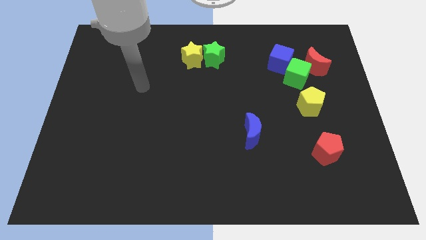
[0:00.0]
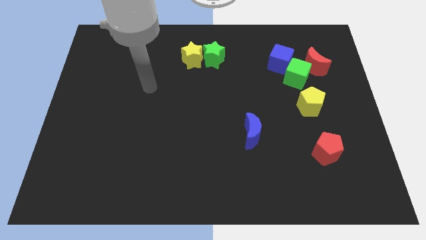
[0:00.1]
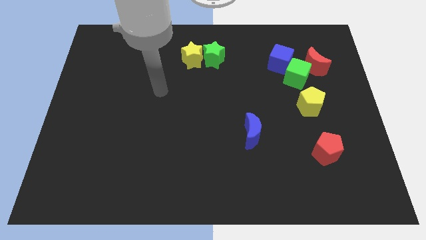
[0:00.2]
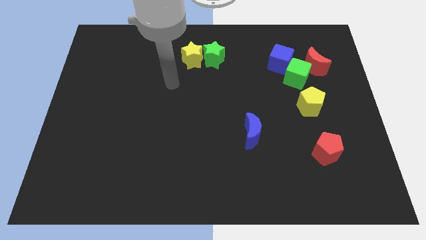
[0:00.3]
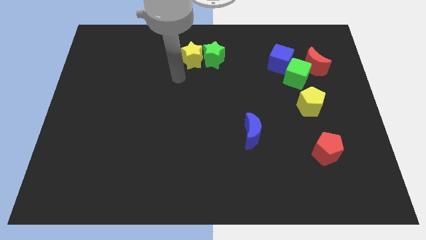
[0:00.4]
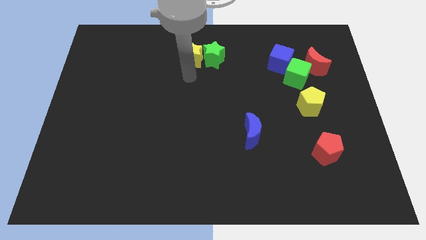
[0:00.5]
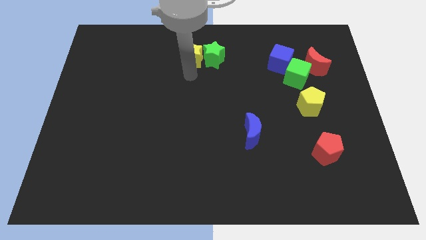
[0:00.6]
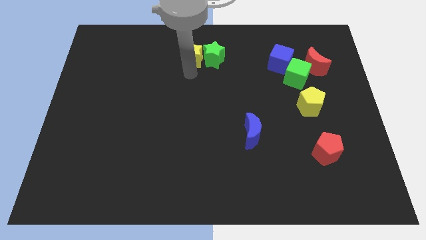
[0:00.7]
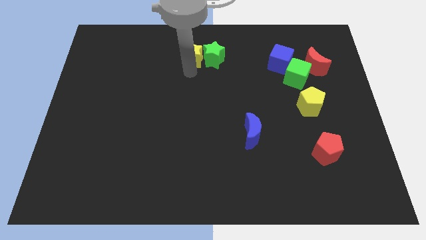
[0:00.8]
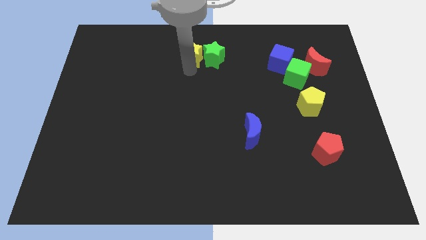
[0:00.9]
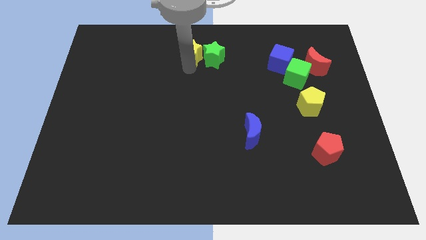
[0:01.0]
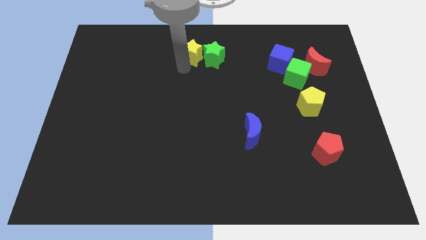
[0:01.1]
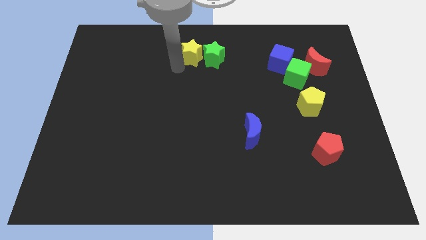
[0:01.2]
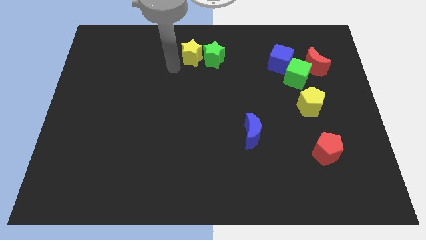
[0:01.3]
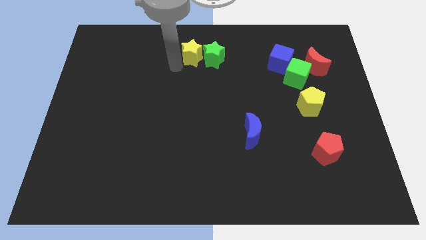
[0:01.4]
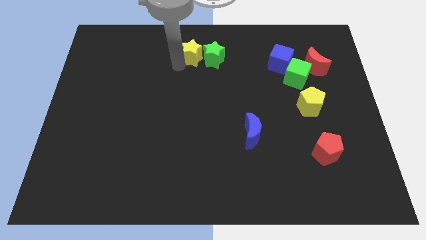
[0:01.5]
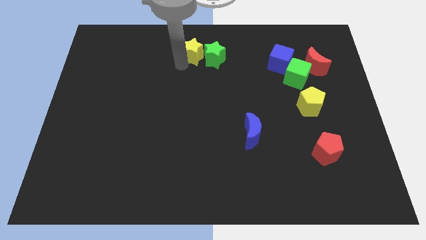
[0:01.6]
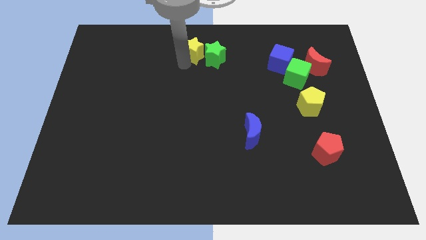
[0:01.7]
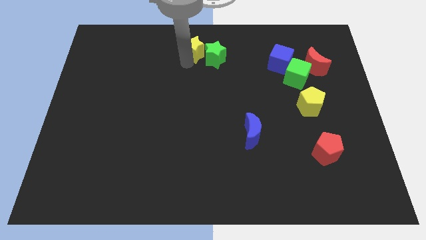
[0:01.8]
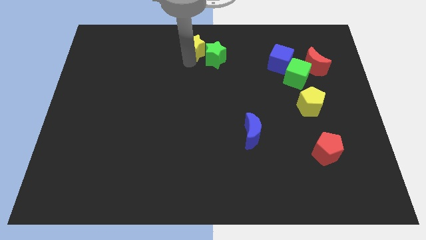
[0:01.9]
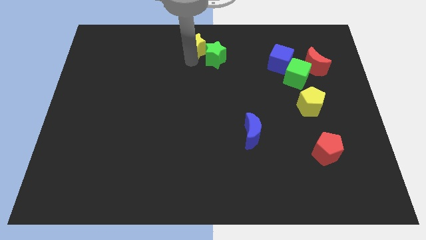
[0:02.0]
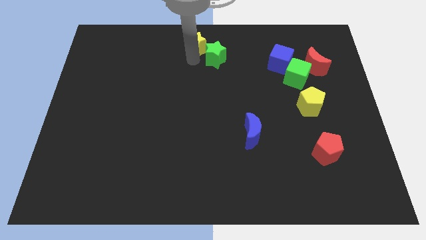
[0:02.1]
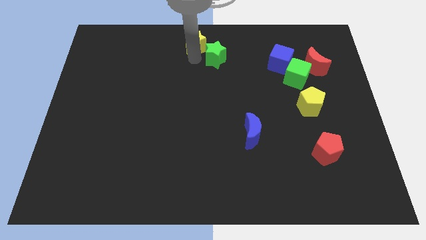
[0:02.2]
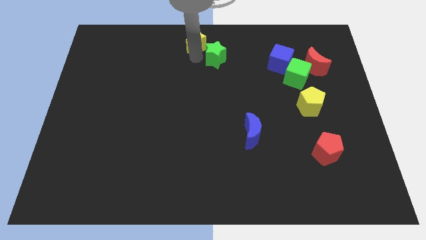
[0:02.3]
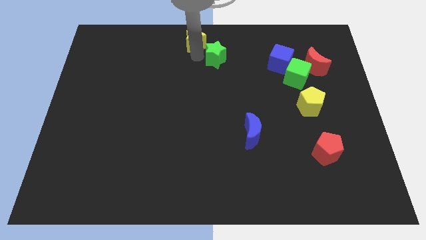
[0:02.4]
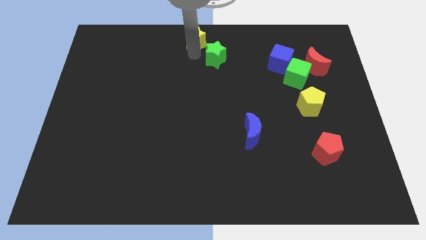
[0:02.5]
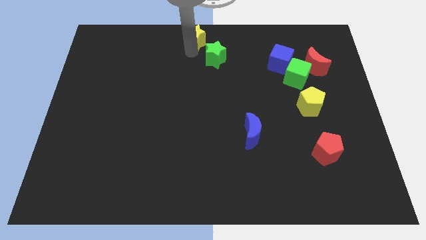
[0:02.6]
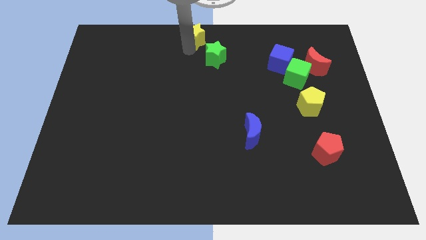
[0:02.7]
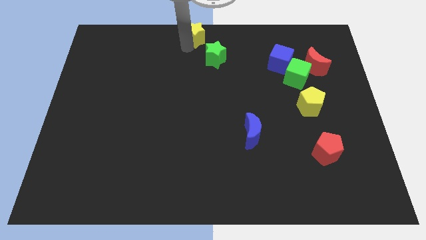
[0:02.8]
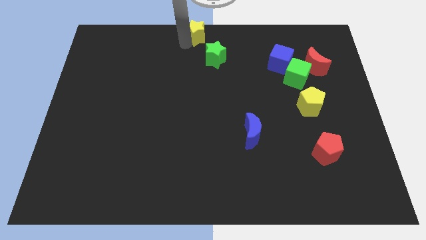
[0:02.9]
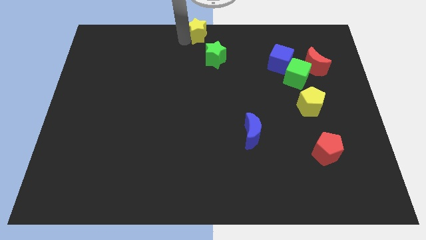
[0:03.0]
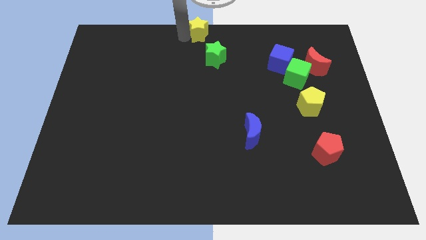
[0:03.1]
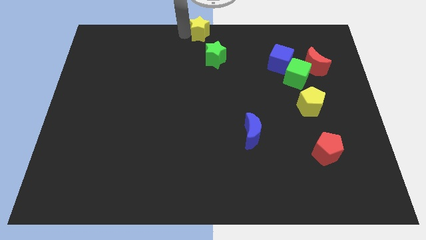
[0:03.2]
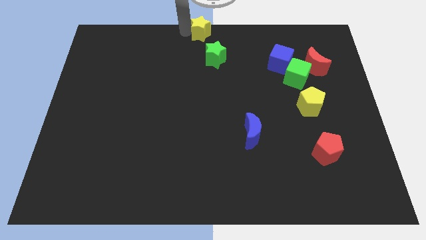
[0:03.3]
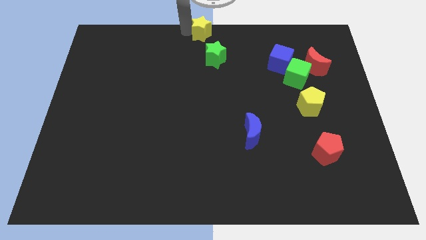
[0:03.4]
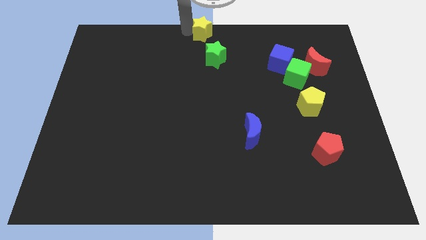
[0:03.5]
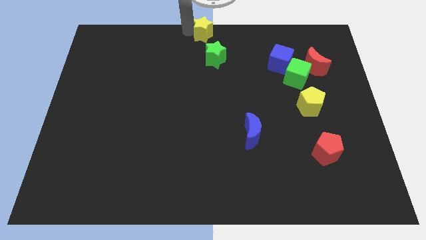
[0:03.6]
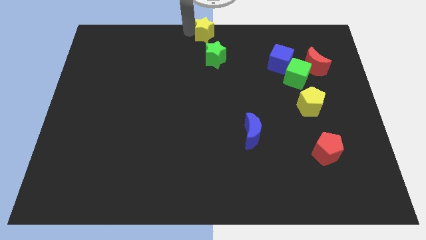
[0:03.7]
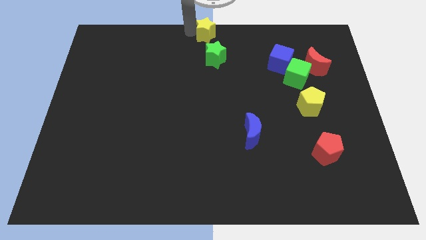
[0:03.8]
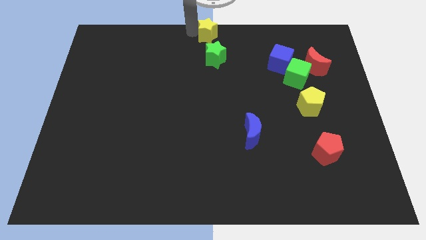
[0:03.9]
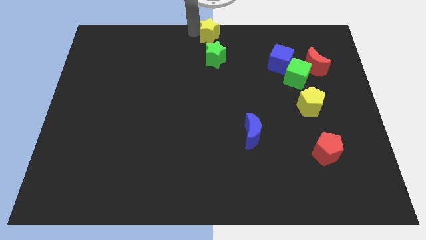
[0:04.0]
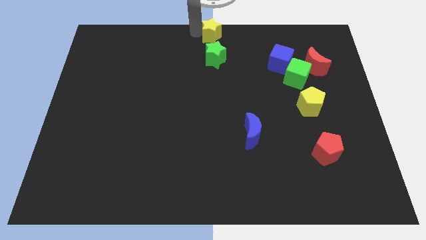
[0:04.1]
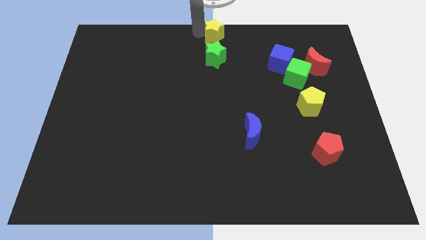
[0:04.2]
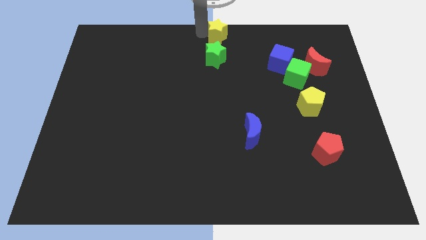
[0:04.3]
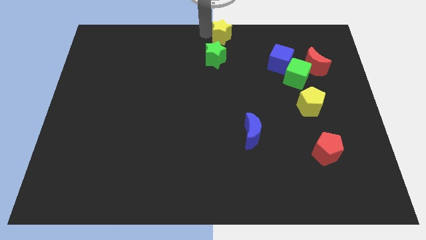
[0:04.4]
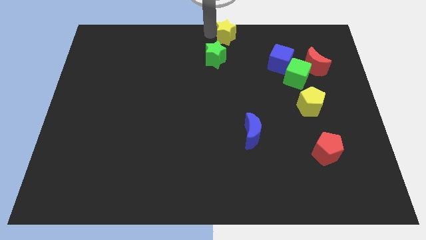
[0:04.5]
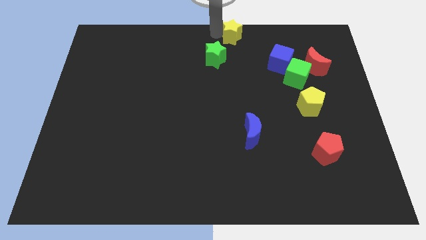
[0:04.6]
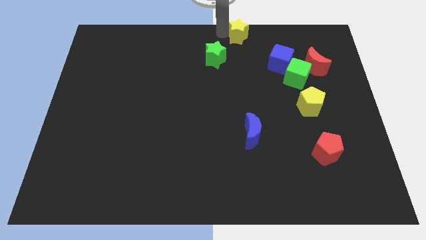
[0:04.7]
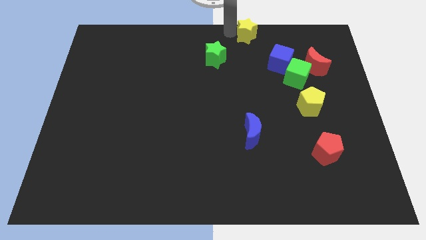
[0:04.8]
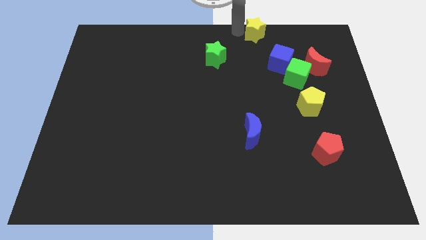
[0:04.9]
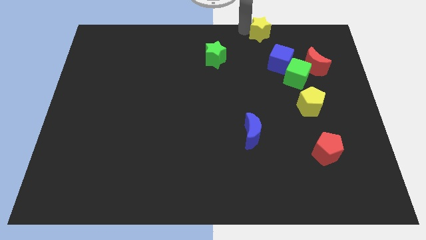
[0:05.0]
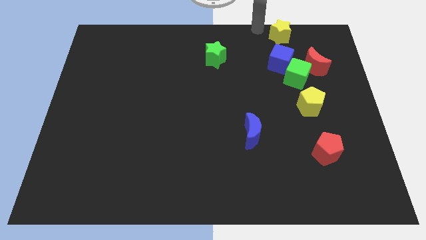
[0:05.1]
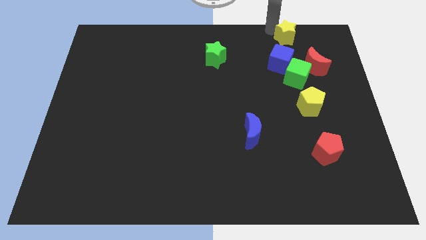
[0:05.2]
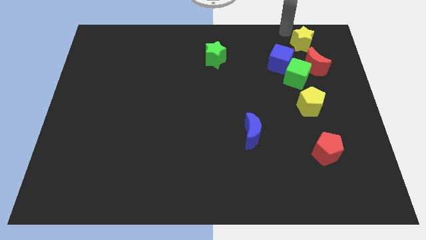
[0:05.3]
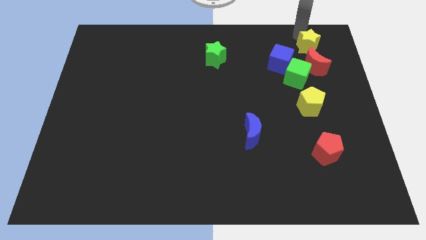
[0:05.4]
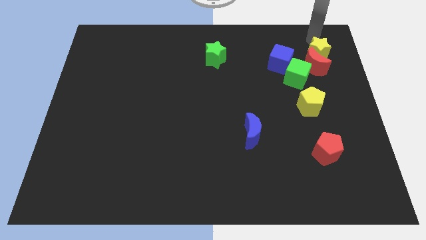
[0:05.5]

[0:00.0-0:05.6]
move the yellow star to the red moon

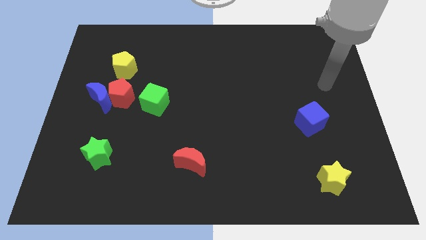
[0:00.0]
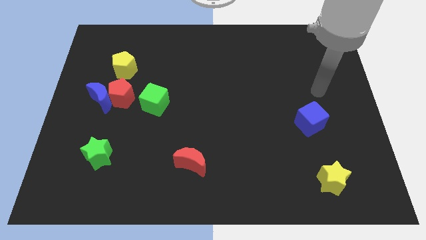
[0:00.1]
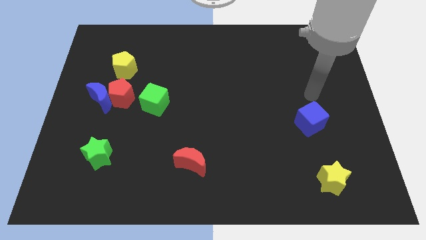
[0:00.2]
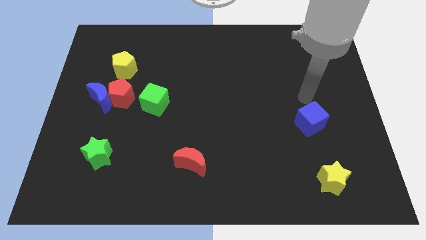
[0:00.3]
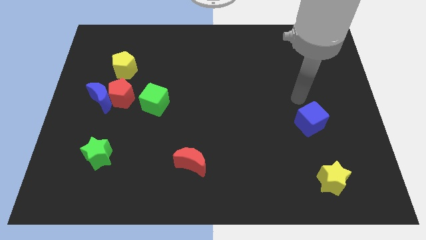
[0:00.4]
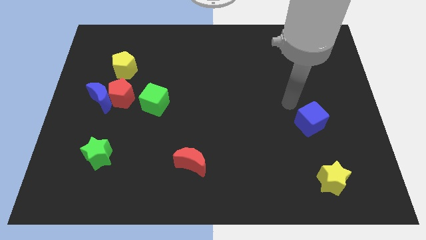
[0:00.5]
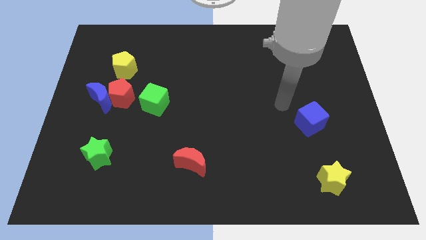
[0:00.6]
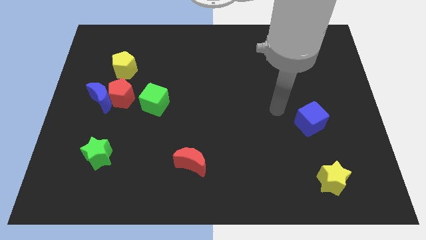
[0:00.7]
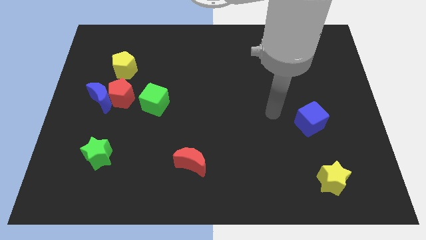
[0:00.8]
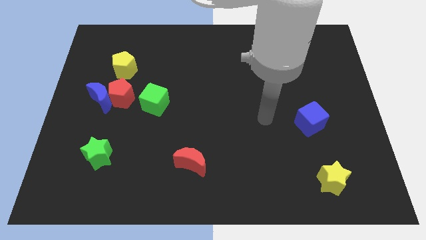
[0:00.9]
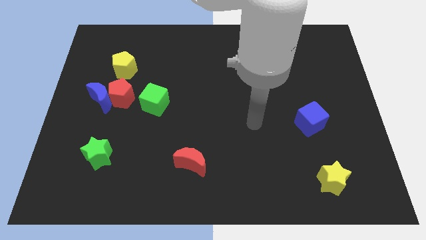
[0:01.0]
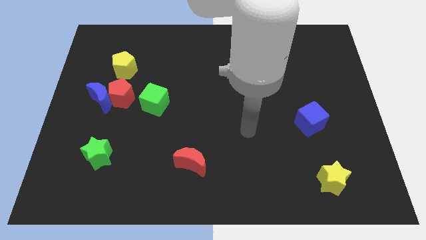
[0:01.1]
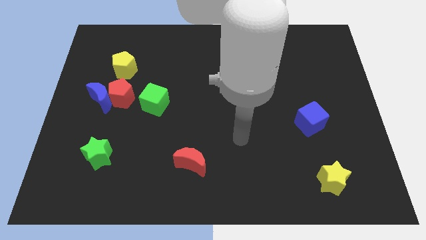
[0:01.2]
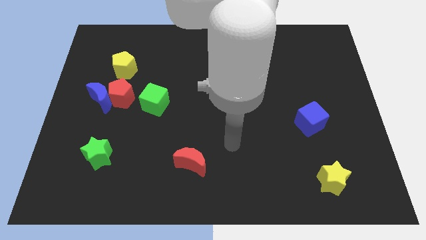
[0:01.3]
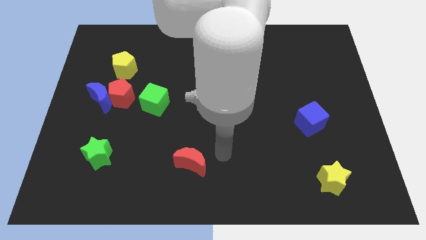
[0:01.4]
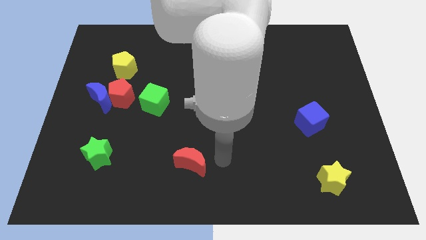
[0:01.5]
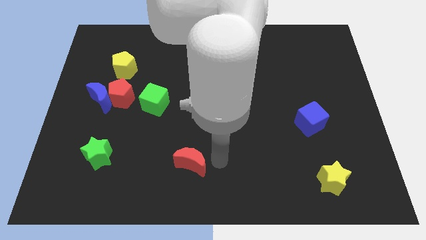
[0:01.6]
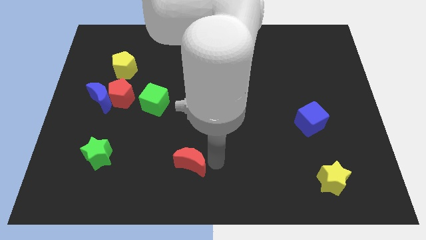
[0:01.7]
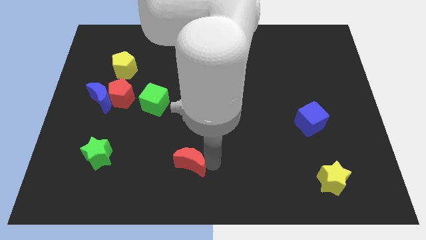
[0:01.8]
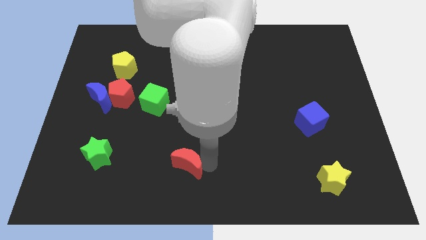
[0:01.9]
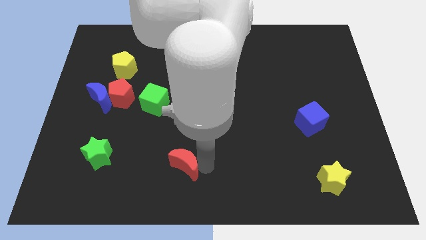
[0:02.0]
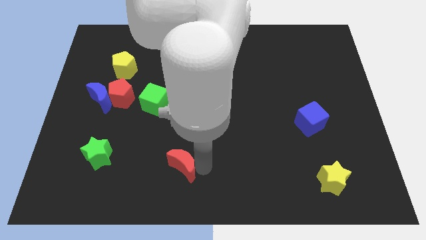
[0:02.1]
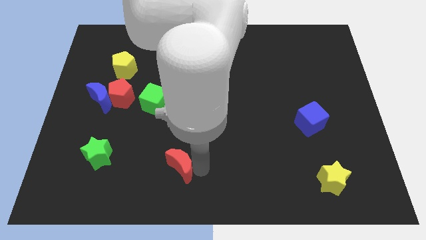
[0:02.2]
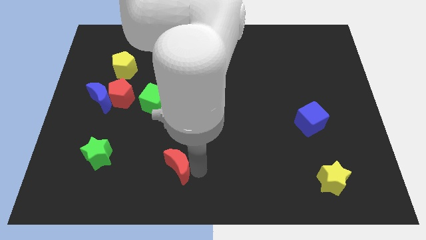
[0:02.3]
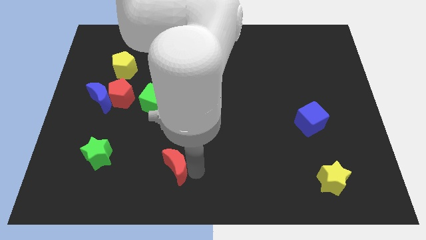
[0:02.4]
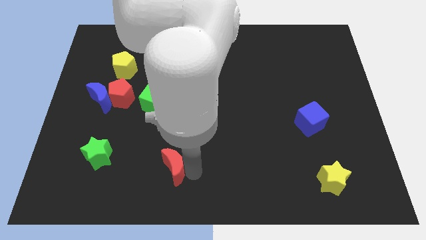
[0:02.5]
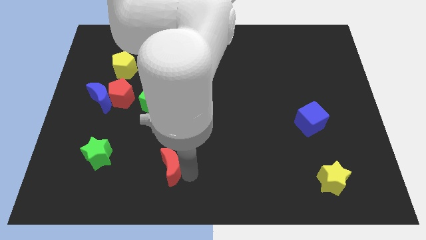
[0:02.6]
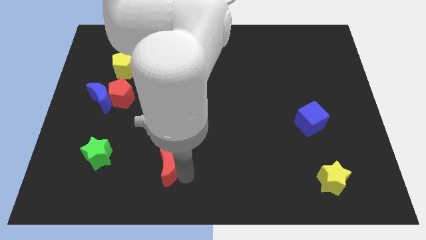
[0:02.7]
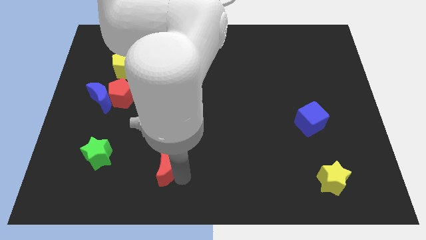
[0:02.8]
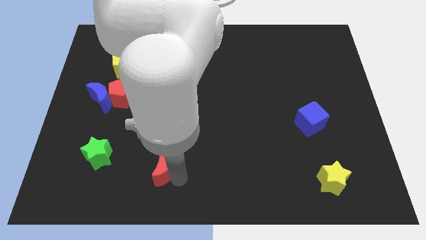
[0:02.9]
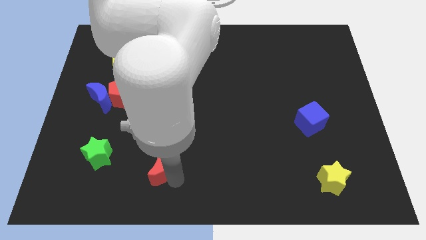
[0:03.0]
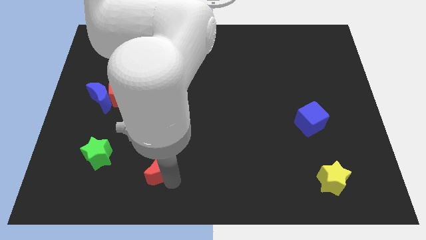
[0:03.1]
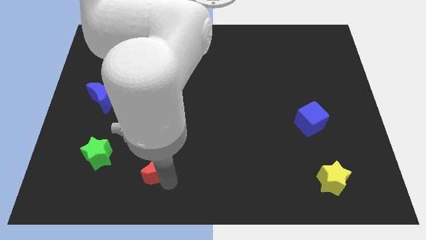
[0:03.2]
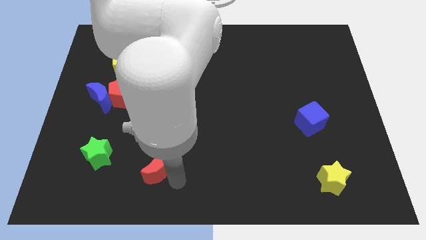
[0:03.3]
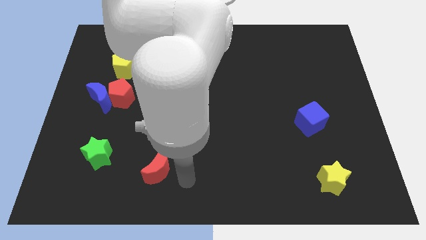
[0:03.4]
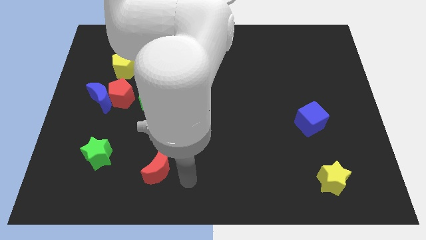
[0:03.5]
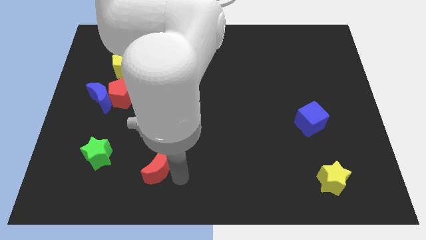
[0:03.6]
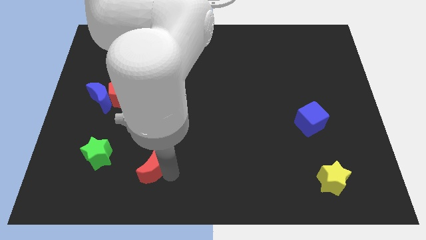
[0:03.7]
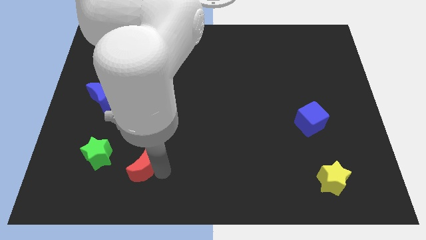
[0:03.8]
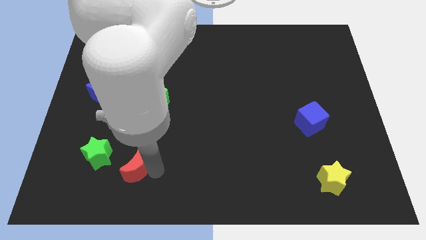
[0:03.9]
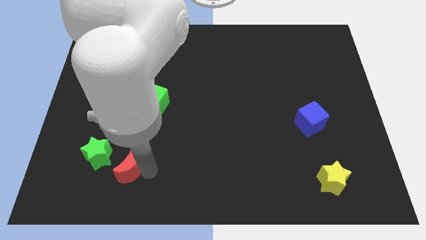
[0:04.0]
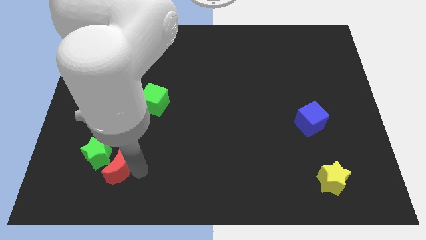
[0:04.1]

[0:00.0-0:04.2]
slide the red moon next to the green star
